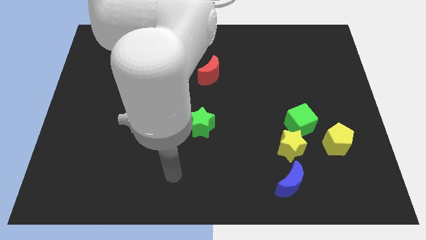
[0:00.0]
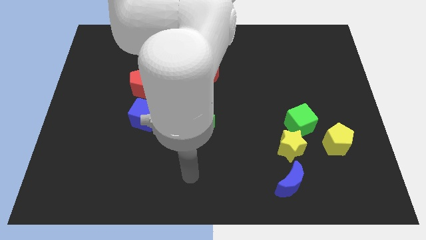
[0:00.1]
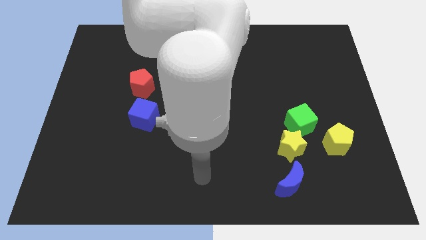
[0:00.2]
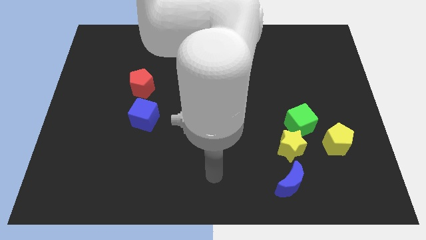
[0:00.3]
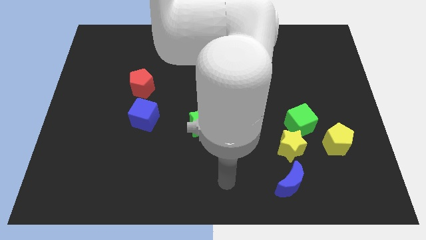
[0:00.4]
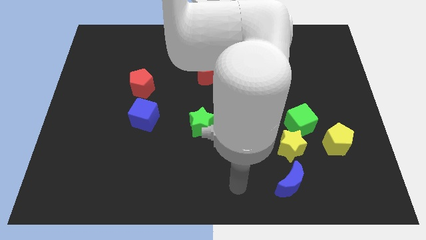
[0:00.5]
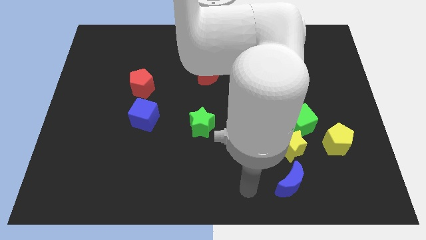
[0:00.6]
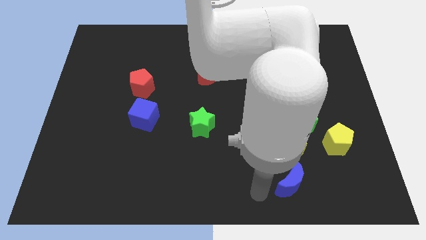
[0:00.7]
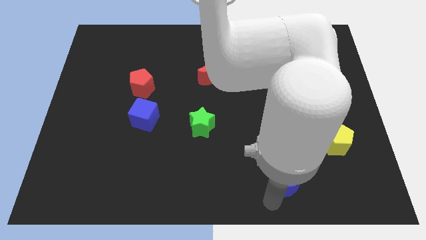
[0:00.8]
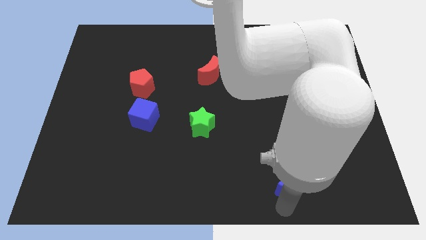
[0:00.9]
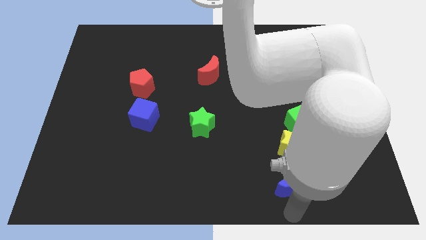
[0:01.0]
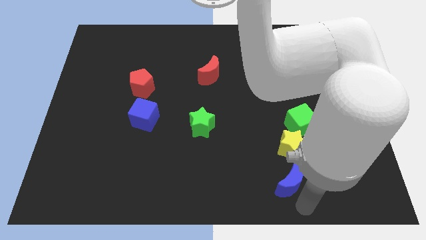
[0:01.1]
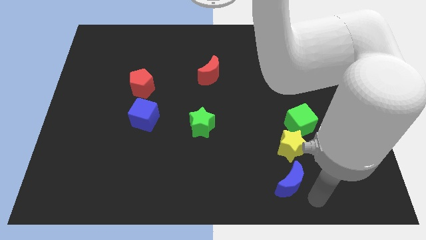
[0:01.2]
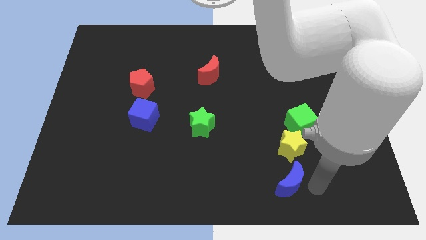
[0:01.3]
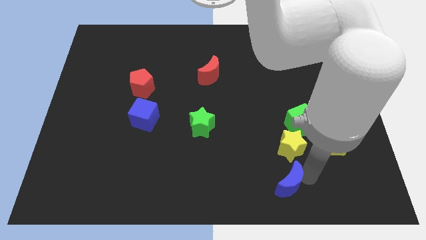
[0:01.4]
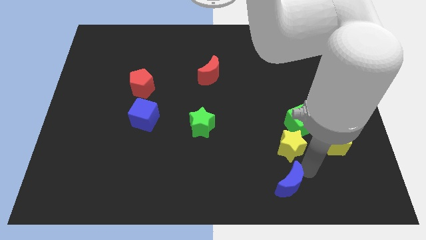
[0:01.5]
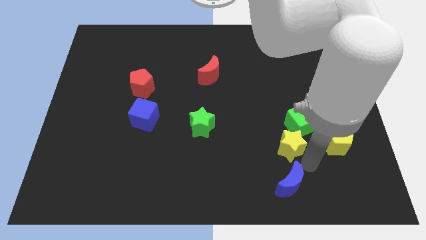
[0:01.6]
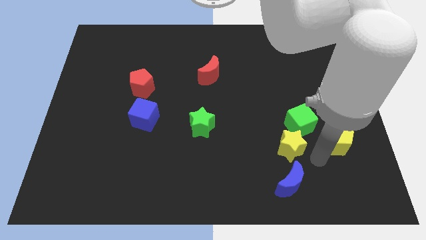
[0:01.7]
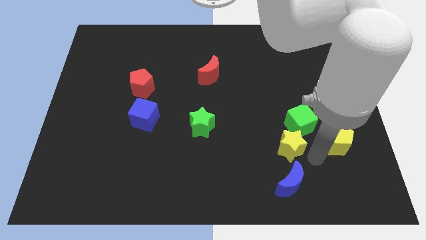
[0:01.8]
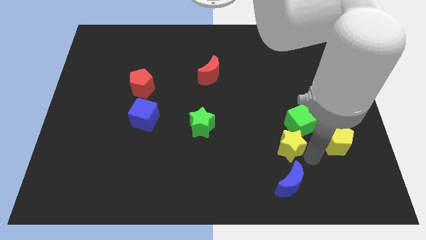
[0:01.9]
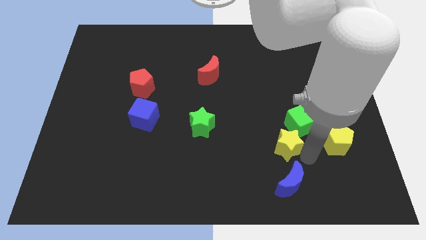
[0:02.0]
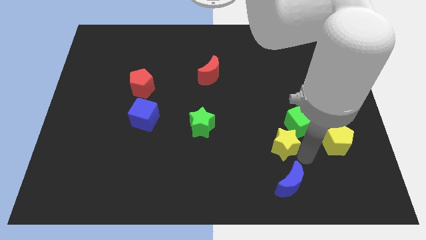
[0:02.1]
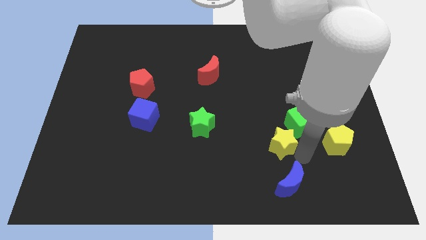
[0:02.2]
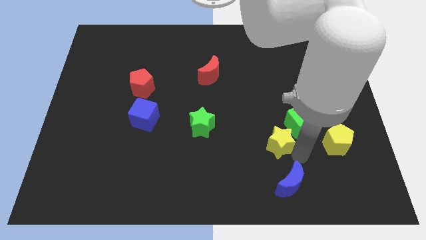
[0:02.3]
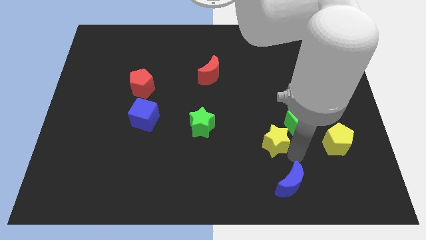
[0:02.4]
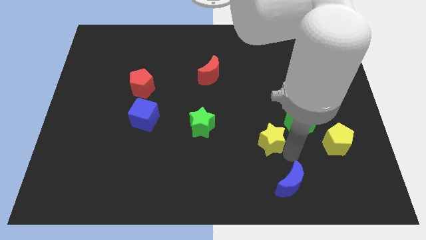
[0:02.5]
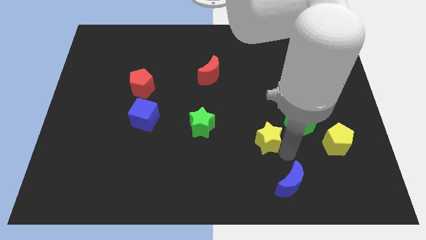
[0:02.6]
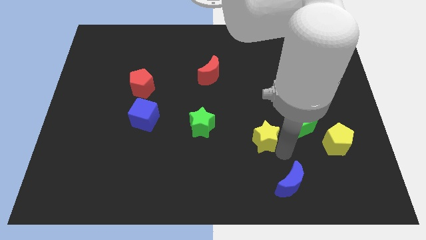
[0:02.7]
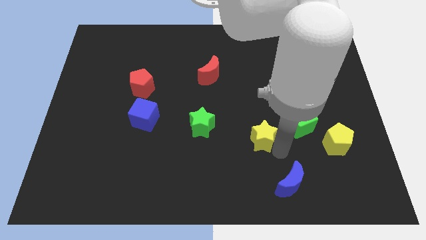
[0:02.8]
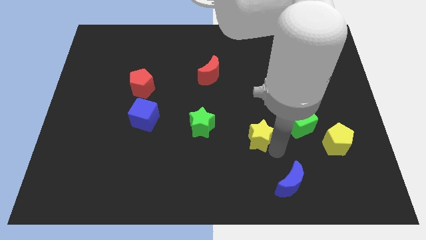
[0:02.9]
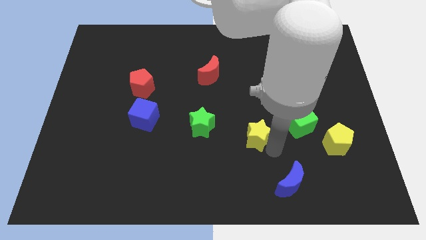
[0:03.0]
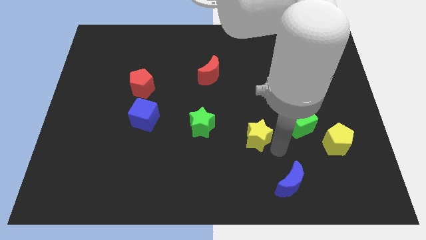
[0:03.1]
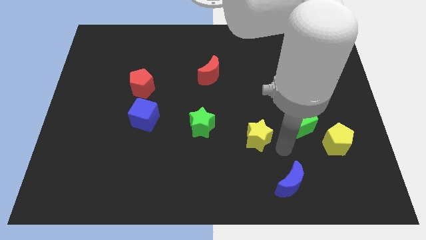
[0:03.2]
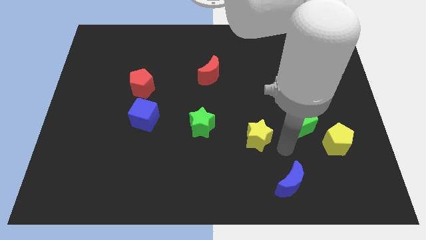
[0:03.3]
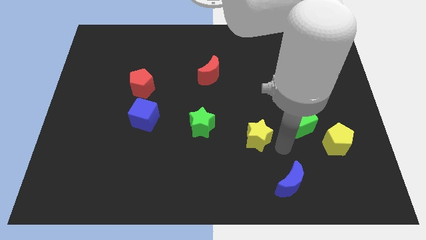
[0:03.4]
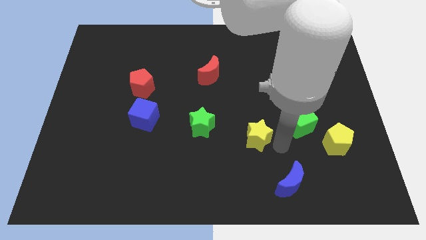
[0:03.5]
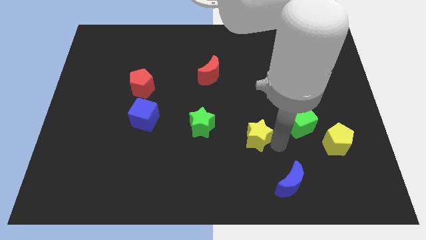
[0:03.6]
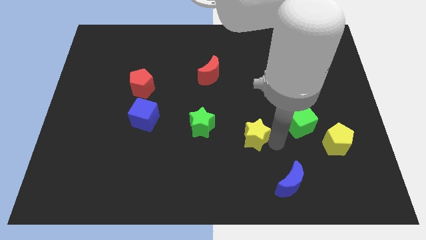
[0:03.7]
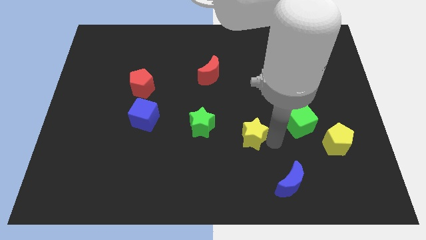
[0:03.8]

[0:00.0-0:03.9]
separate the yellow star from the green cube and blue moon

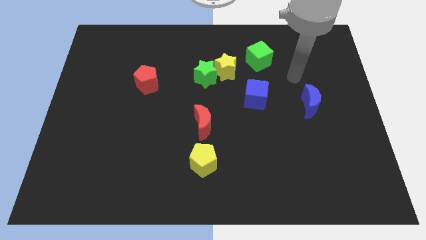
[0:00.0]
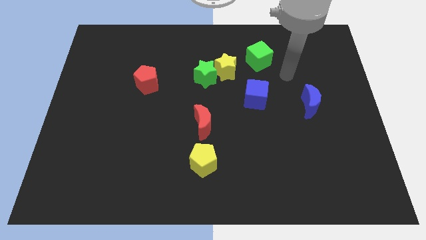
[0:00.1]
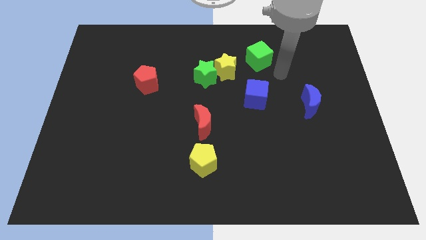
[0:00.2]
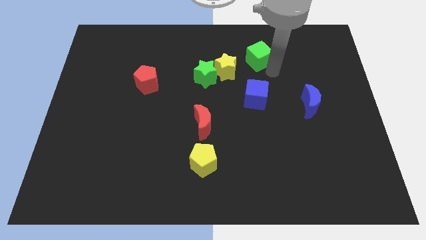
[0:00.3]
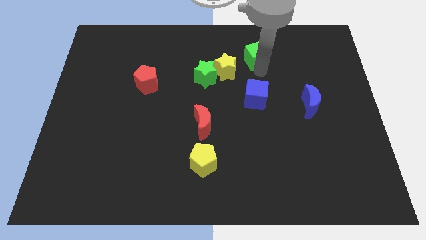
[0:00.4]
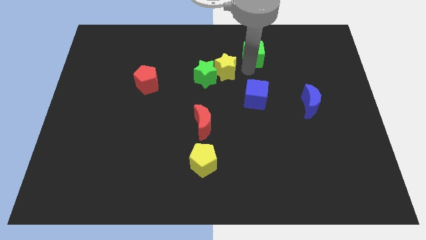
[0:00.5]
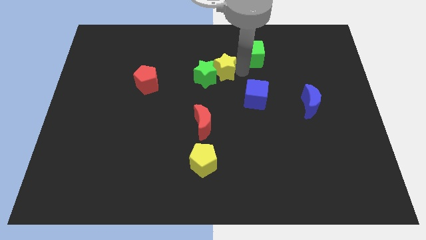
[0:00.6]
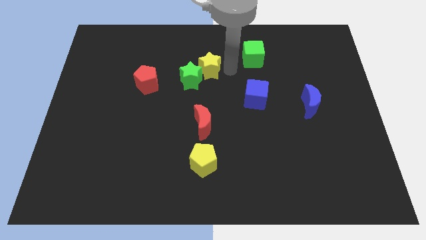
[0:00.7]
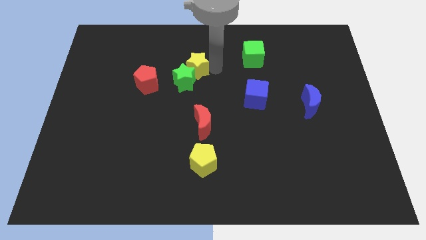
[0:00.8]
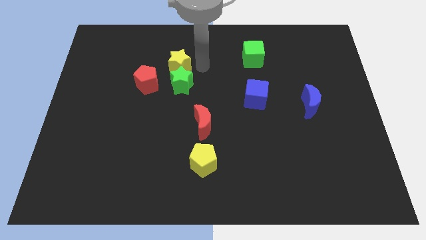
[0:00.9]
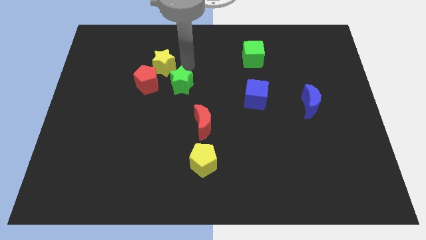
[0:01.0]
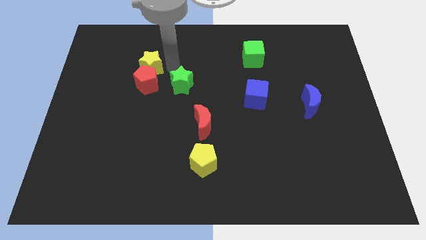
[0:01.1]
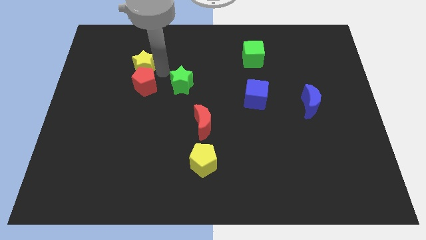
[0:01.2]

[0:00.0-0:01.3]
pull the green star apart from the yellow star

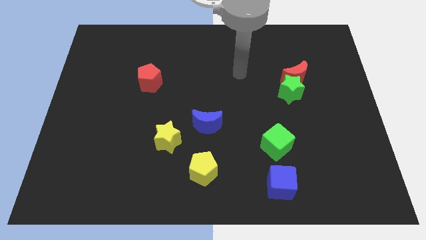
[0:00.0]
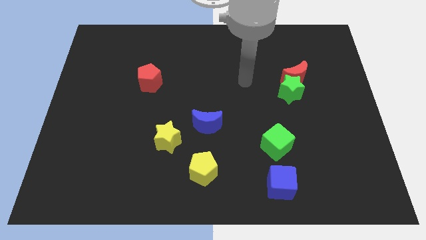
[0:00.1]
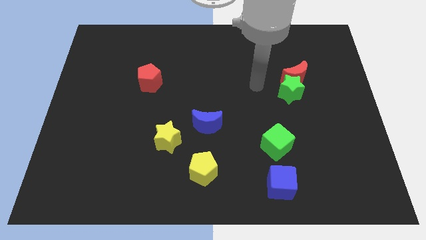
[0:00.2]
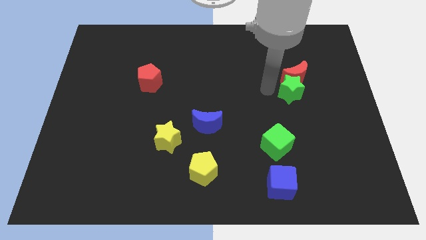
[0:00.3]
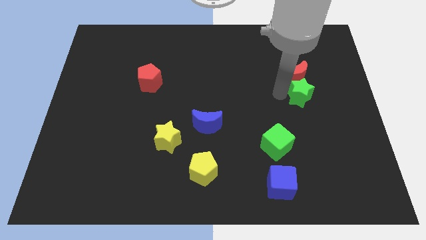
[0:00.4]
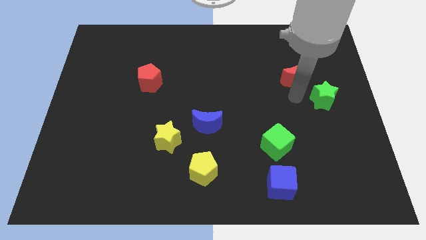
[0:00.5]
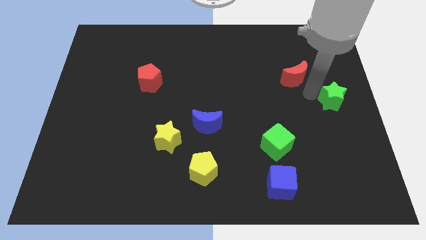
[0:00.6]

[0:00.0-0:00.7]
pull the red moon apart from the green star

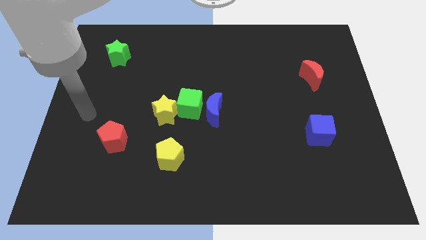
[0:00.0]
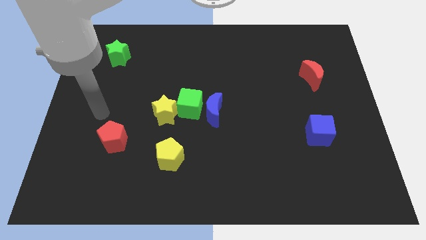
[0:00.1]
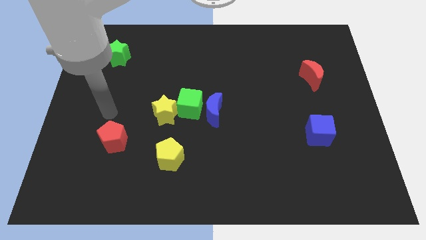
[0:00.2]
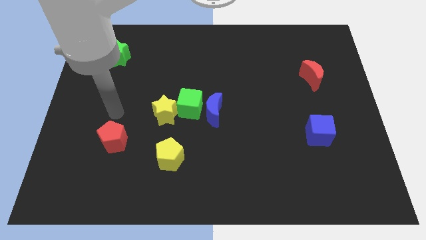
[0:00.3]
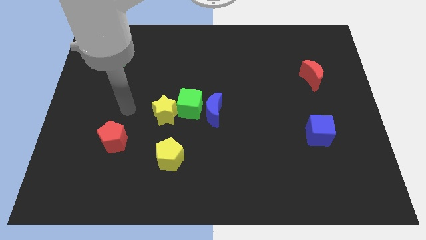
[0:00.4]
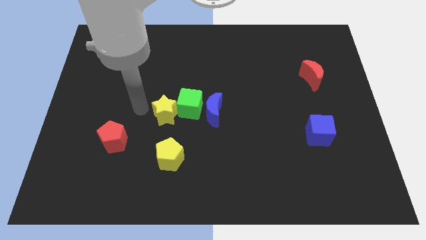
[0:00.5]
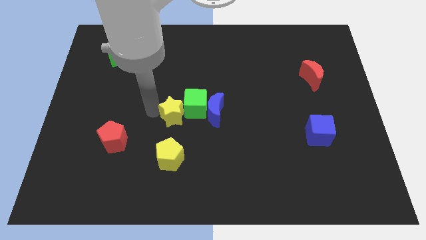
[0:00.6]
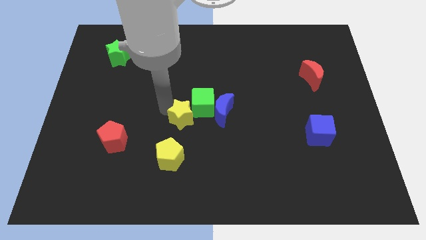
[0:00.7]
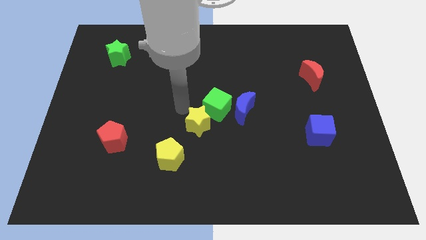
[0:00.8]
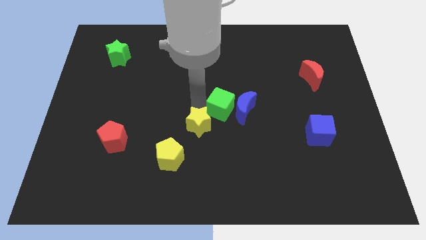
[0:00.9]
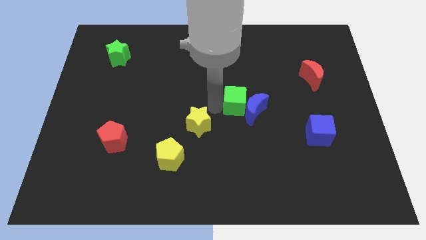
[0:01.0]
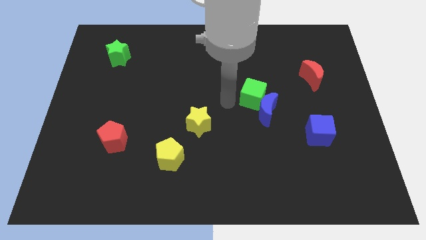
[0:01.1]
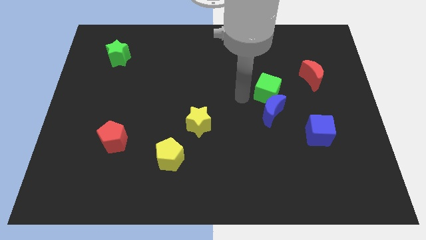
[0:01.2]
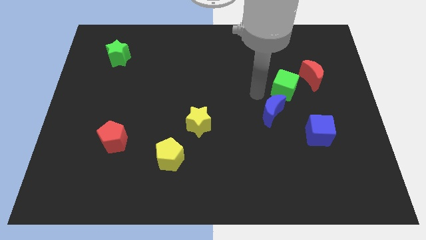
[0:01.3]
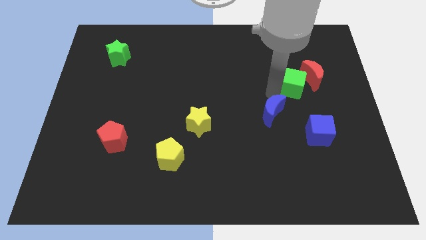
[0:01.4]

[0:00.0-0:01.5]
separate the blue moon from the green cube

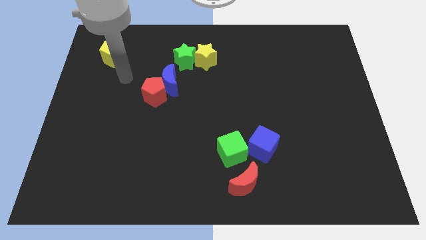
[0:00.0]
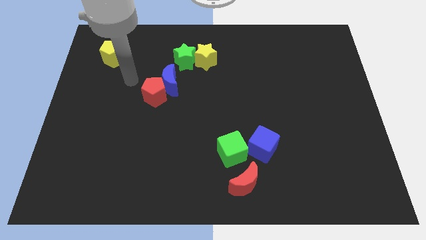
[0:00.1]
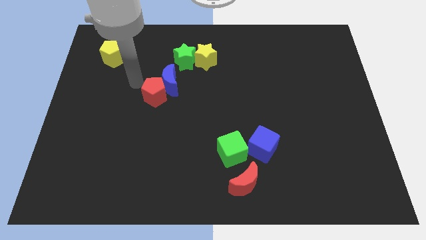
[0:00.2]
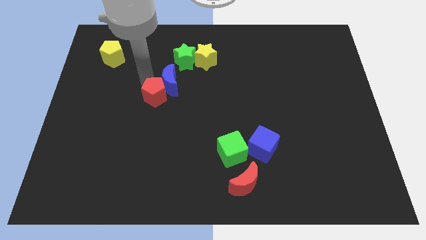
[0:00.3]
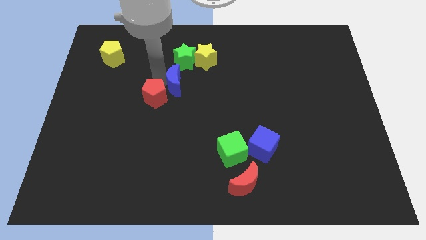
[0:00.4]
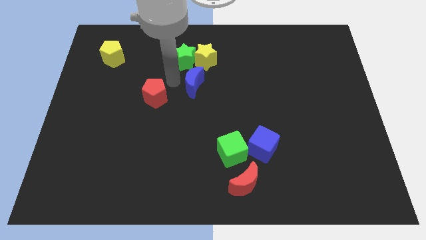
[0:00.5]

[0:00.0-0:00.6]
move the red pentagon away from the blue moon

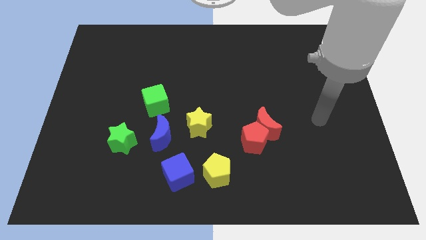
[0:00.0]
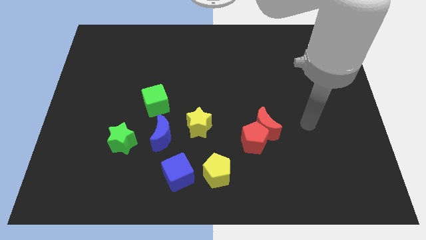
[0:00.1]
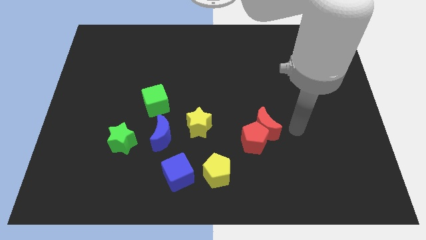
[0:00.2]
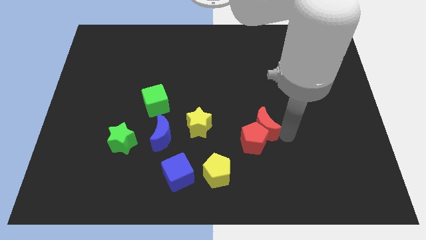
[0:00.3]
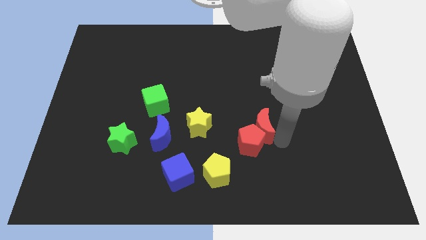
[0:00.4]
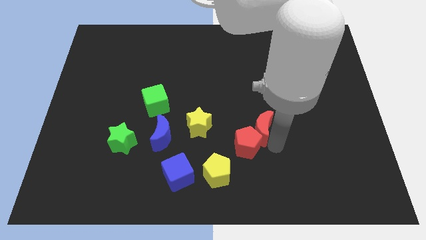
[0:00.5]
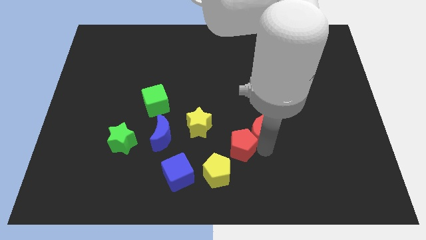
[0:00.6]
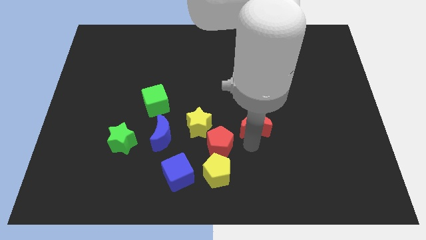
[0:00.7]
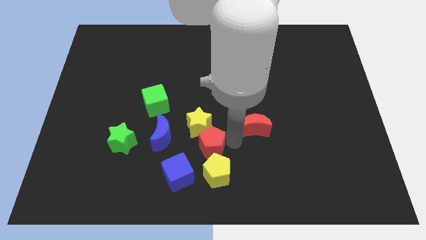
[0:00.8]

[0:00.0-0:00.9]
pull the red moon apart from the red pentagon

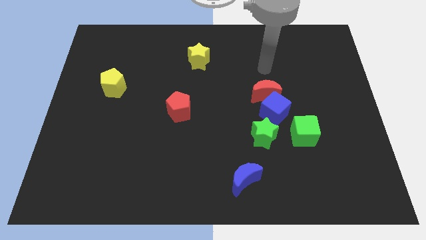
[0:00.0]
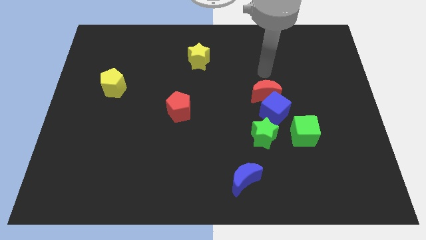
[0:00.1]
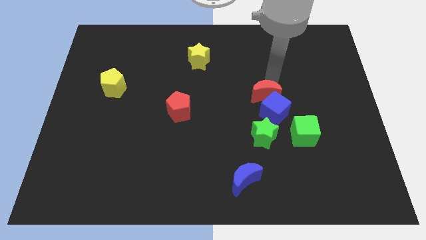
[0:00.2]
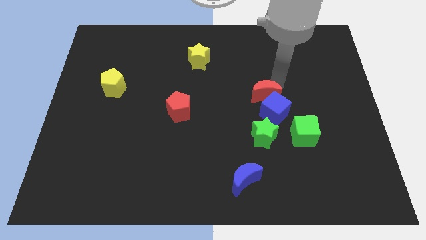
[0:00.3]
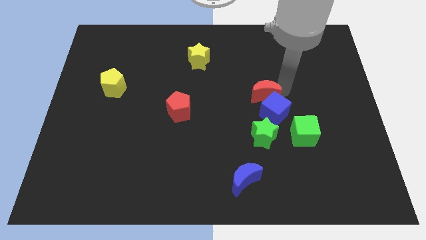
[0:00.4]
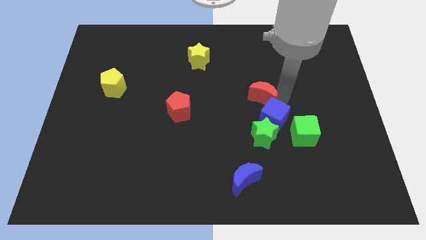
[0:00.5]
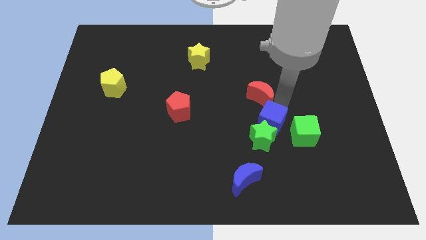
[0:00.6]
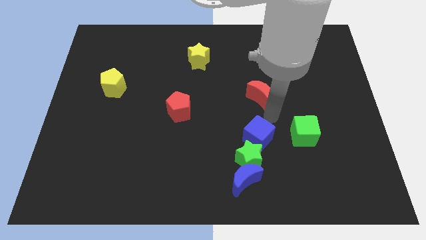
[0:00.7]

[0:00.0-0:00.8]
pull the red moon apart from the blue cube
